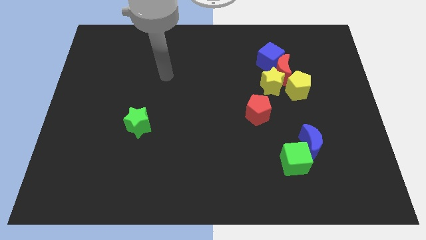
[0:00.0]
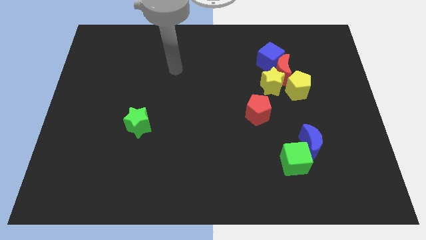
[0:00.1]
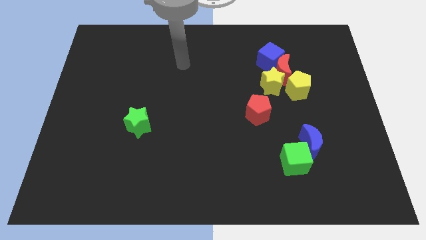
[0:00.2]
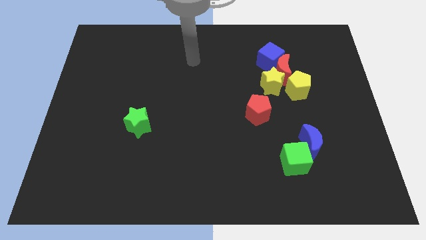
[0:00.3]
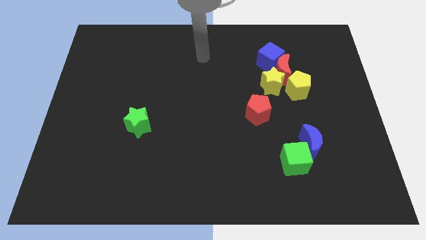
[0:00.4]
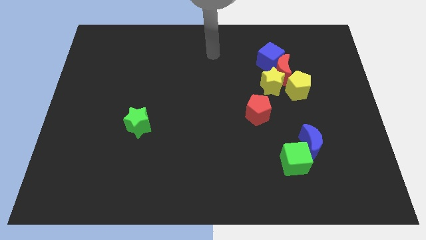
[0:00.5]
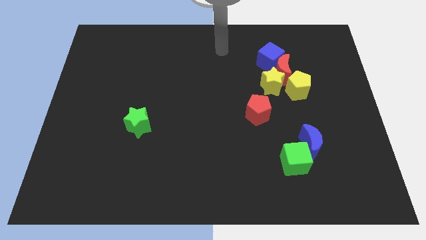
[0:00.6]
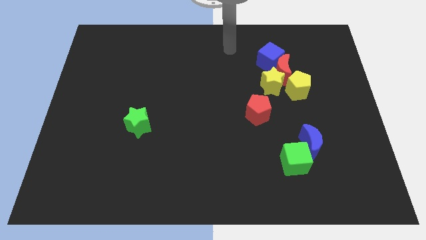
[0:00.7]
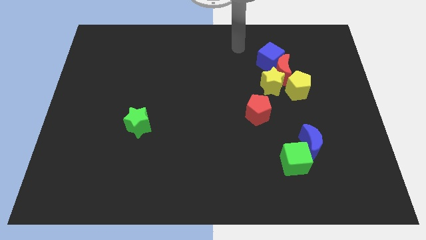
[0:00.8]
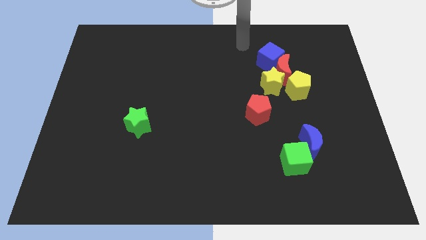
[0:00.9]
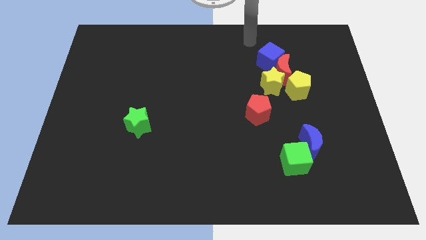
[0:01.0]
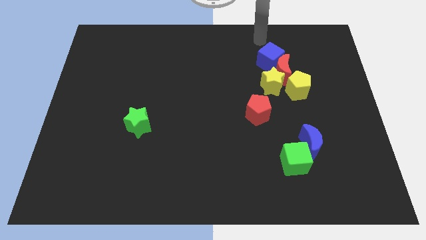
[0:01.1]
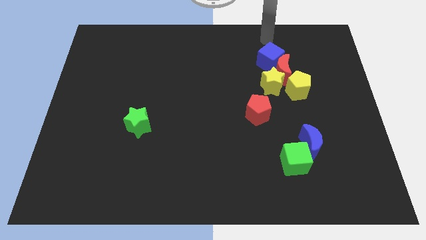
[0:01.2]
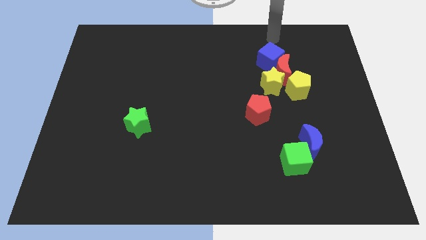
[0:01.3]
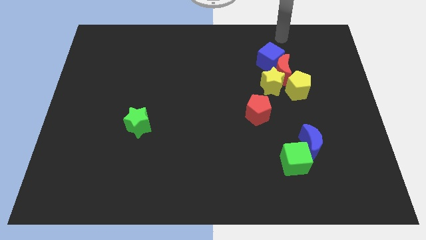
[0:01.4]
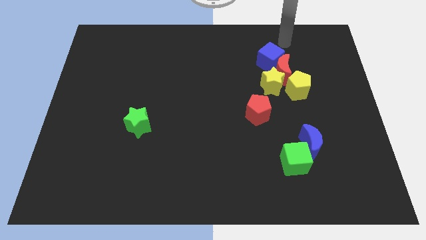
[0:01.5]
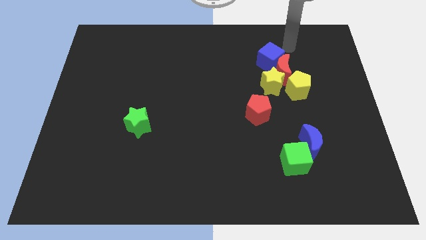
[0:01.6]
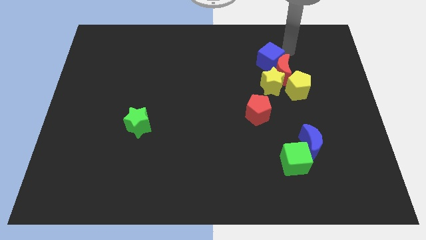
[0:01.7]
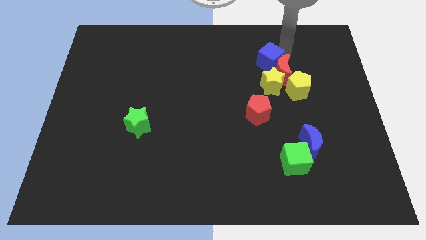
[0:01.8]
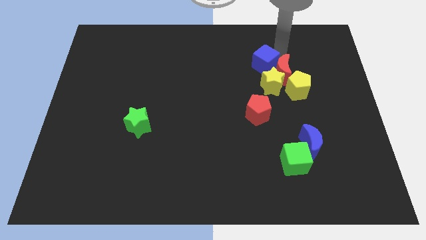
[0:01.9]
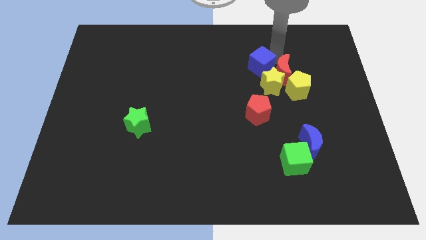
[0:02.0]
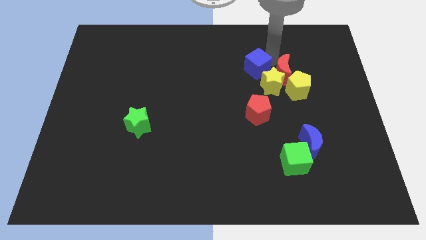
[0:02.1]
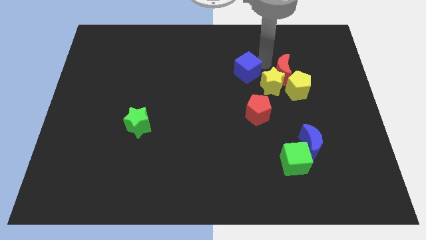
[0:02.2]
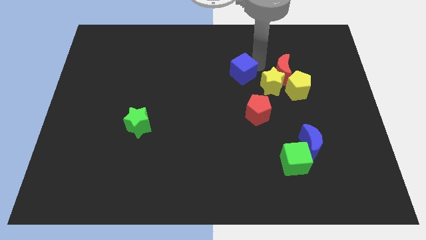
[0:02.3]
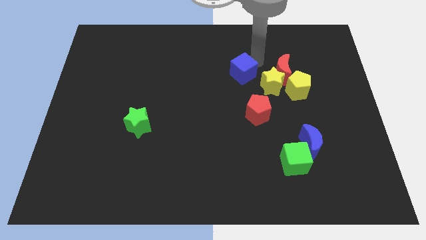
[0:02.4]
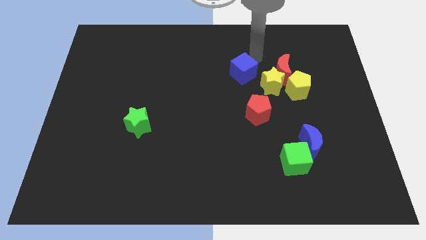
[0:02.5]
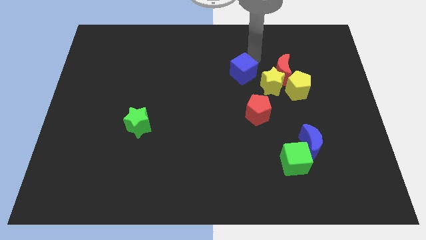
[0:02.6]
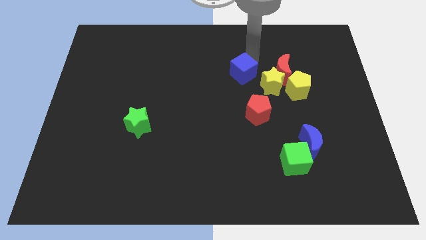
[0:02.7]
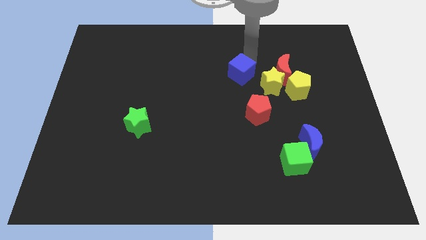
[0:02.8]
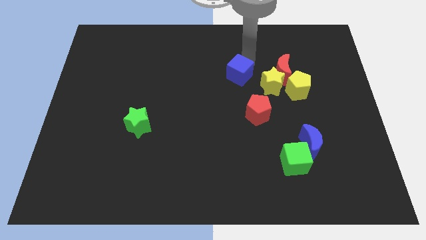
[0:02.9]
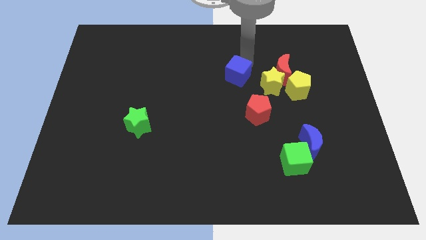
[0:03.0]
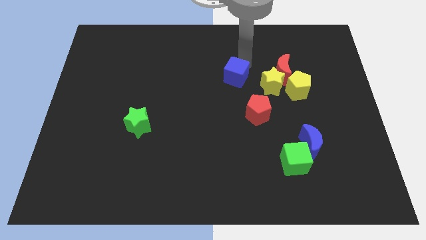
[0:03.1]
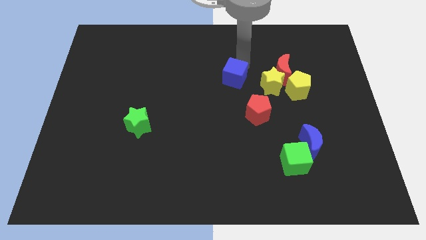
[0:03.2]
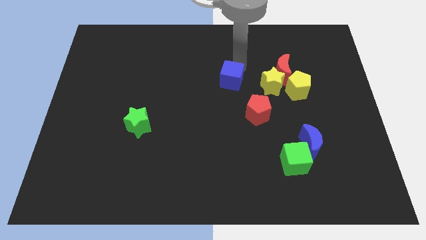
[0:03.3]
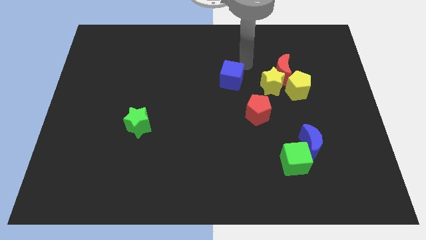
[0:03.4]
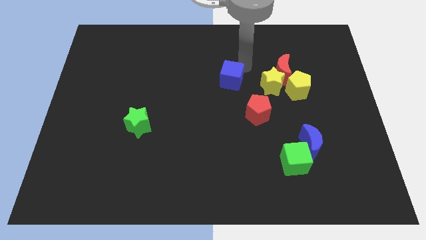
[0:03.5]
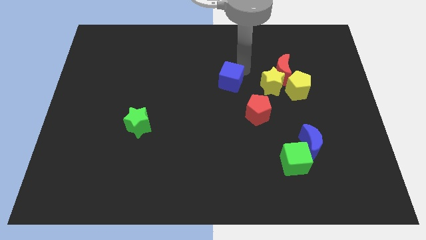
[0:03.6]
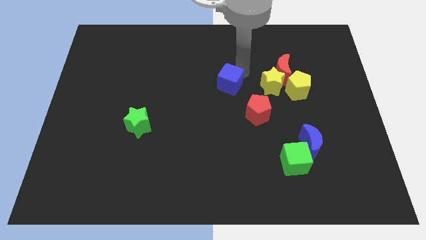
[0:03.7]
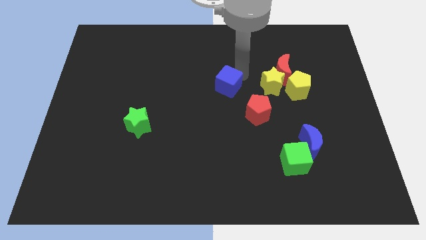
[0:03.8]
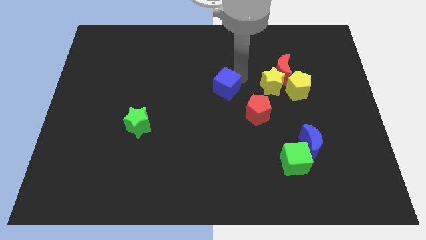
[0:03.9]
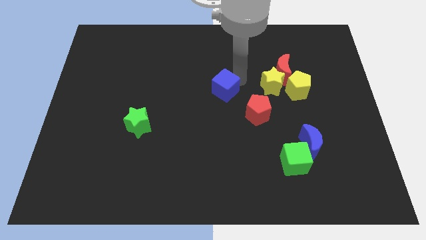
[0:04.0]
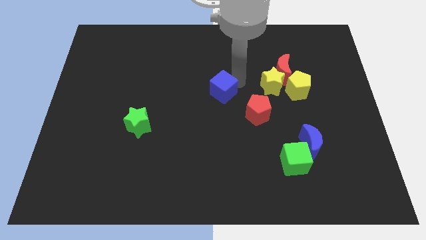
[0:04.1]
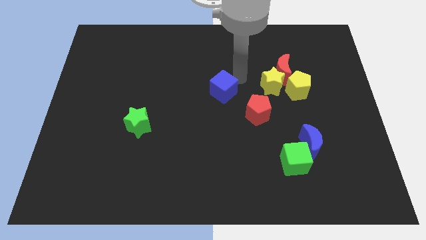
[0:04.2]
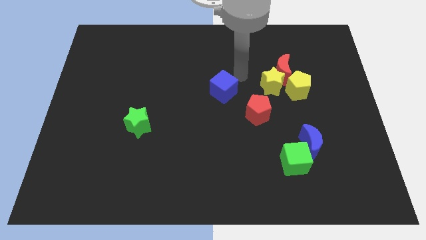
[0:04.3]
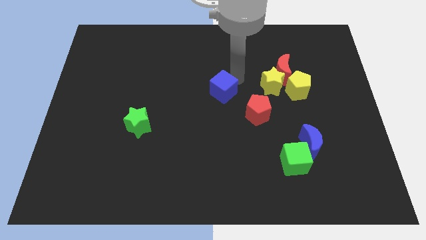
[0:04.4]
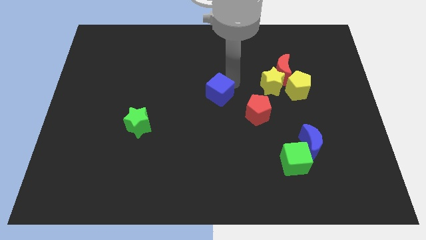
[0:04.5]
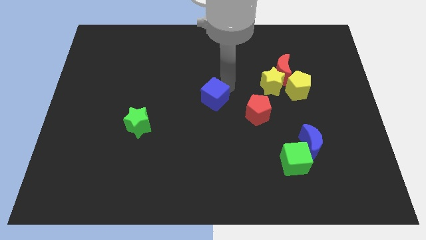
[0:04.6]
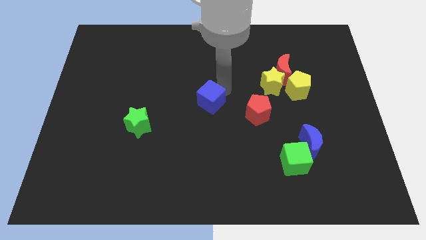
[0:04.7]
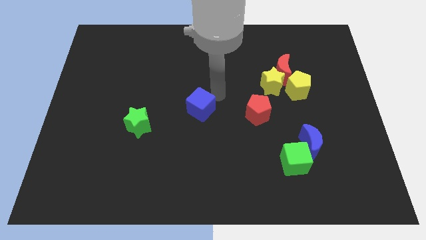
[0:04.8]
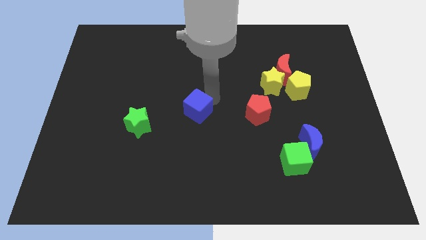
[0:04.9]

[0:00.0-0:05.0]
push the blue cube to the right side of the green star

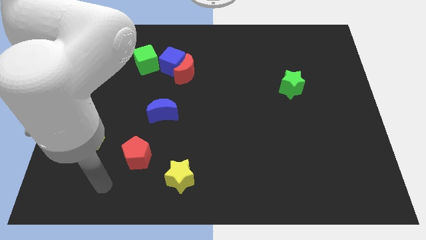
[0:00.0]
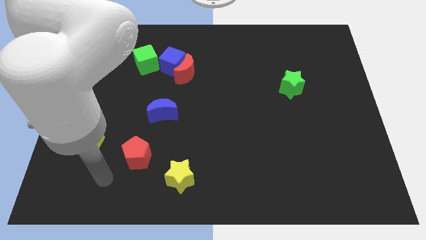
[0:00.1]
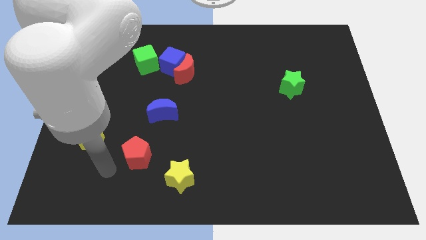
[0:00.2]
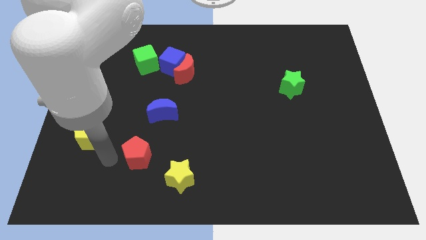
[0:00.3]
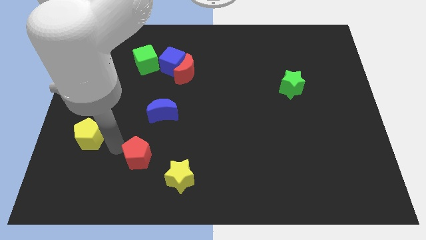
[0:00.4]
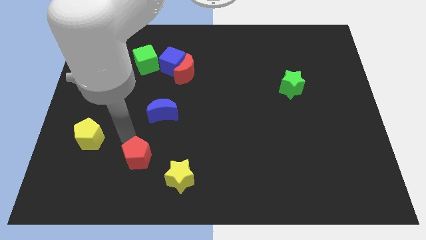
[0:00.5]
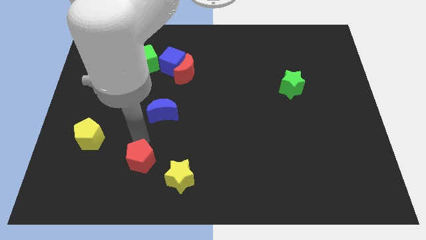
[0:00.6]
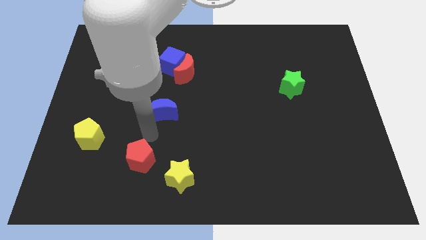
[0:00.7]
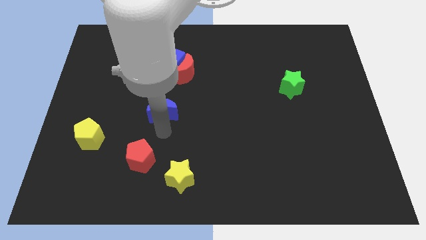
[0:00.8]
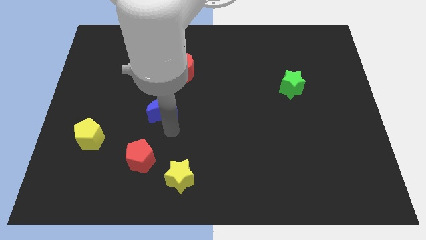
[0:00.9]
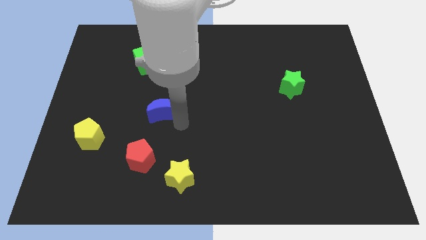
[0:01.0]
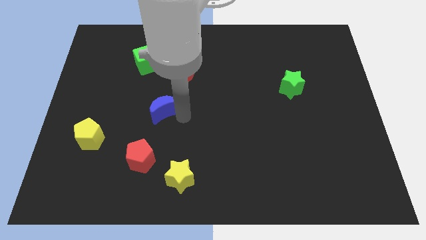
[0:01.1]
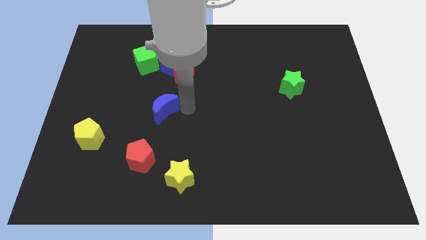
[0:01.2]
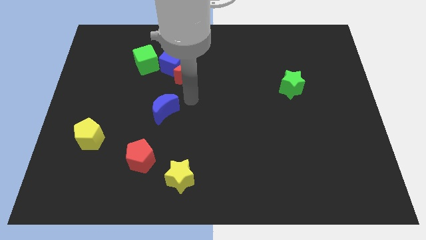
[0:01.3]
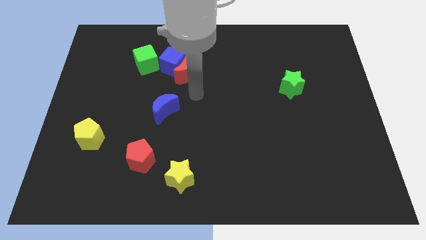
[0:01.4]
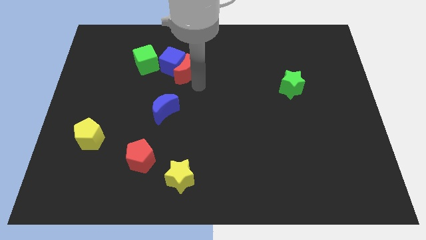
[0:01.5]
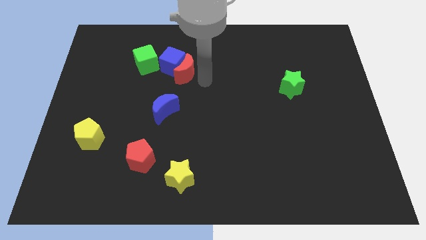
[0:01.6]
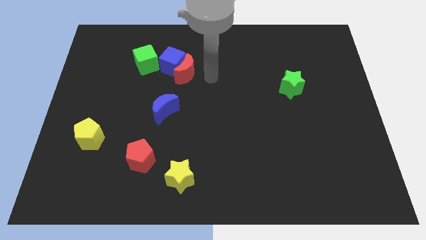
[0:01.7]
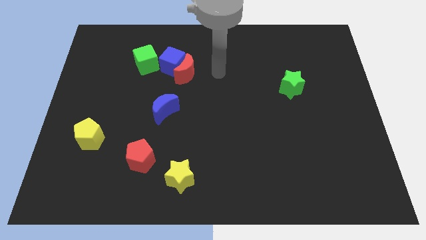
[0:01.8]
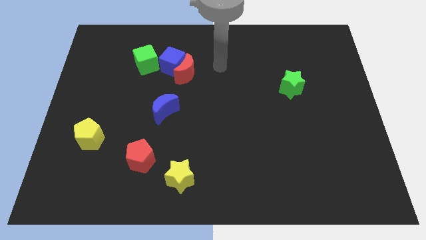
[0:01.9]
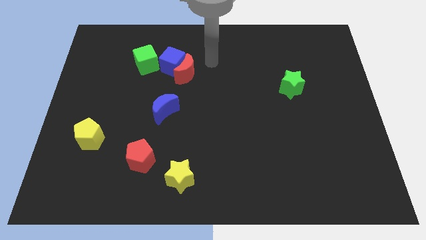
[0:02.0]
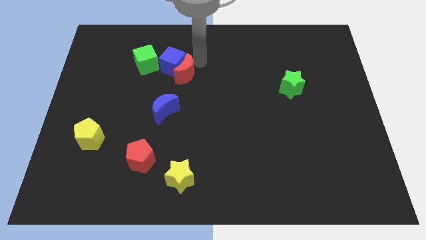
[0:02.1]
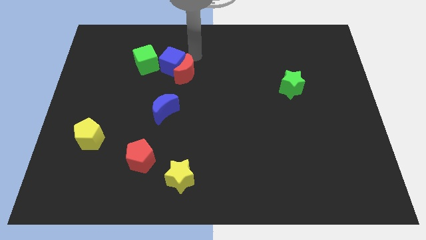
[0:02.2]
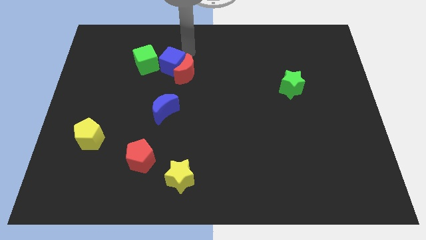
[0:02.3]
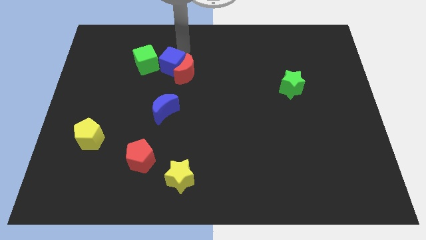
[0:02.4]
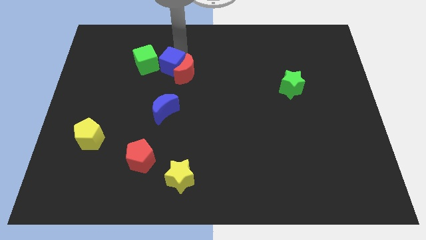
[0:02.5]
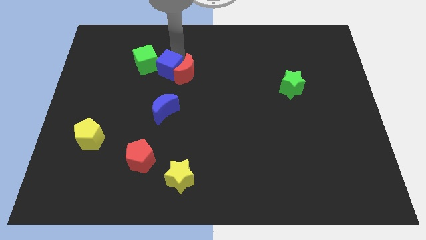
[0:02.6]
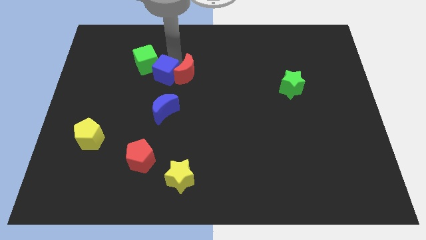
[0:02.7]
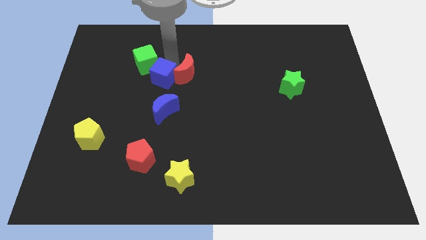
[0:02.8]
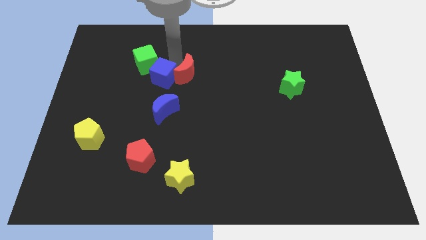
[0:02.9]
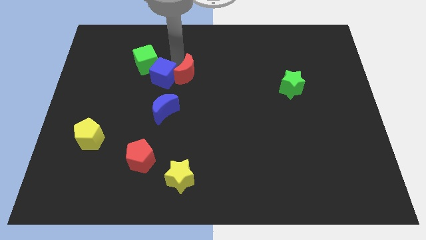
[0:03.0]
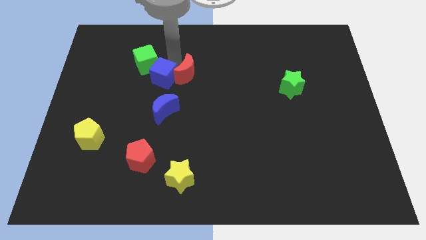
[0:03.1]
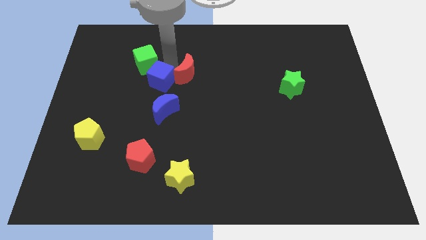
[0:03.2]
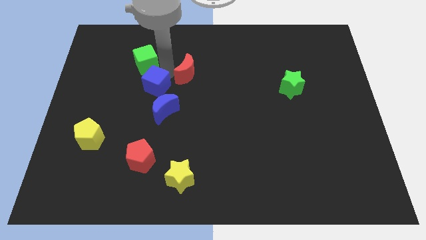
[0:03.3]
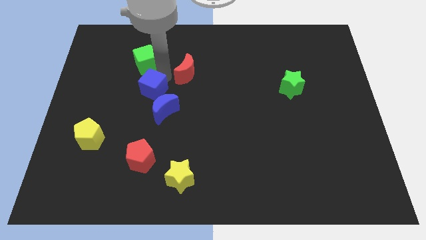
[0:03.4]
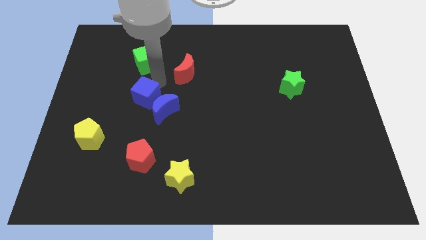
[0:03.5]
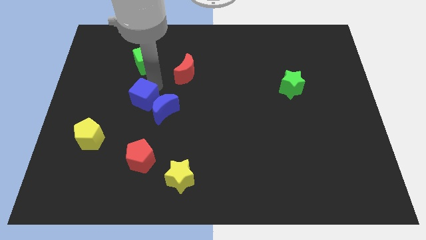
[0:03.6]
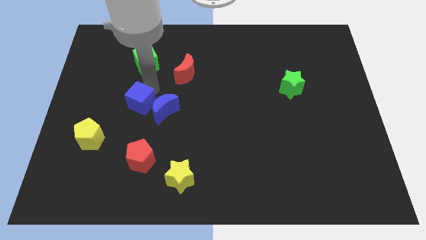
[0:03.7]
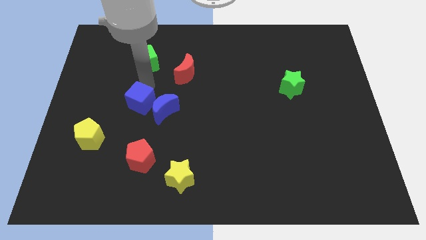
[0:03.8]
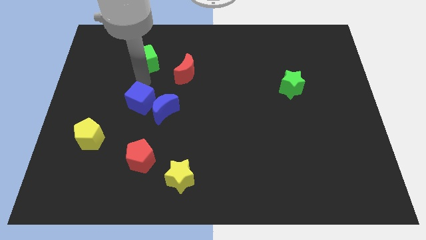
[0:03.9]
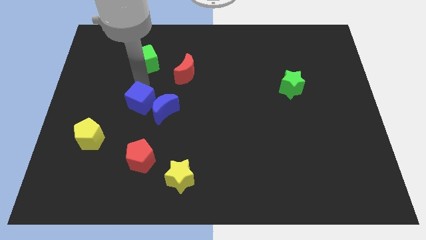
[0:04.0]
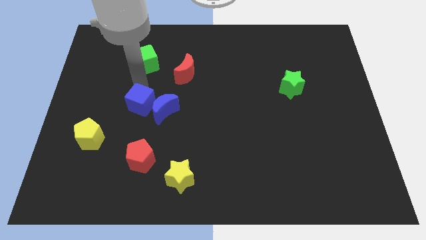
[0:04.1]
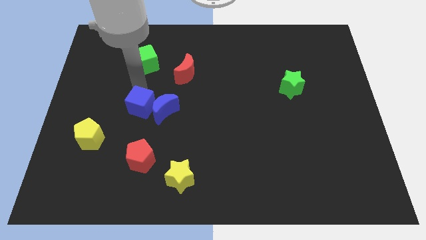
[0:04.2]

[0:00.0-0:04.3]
slide the blue cube to the bottom left side of the blue moon
